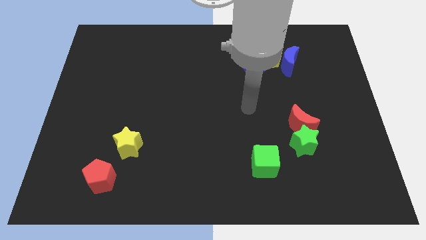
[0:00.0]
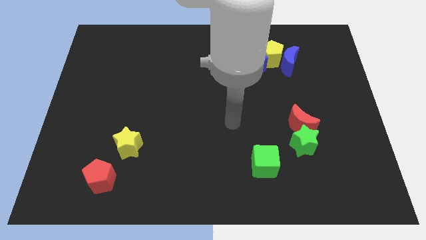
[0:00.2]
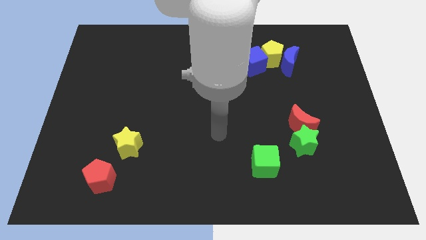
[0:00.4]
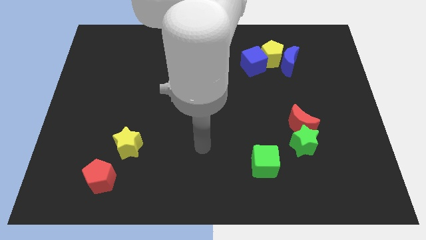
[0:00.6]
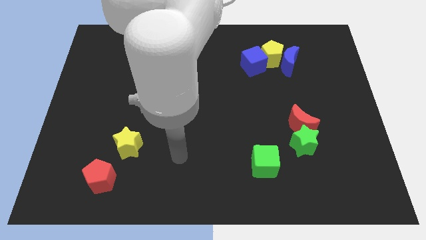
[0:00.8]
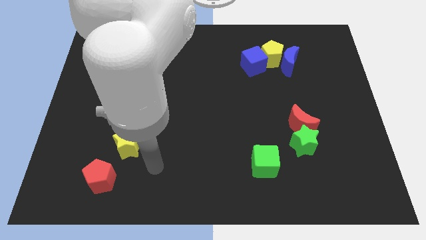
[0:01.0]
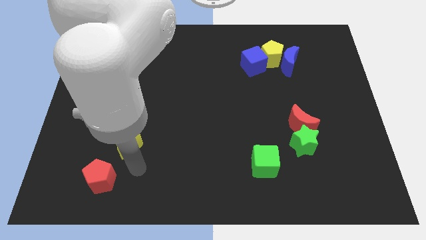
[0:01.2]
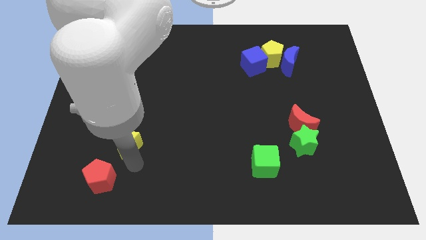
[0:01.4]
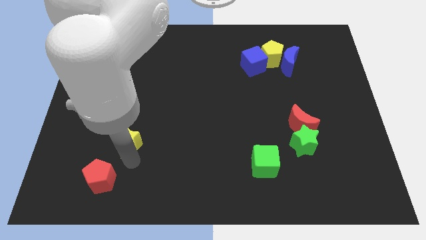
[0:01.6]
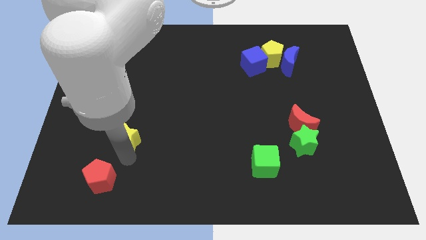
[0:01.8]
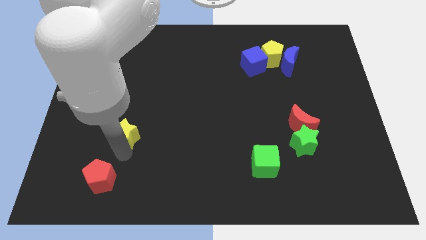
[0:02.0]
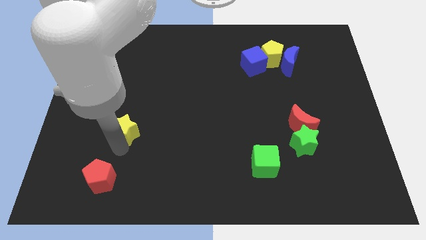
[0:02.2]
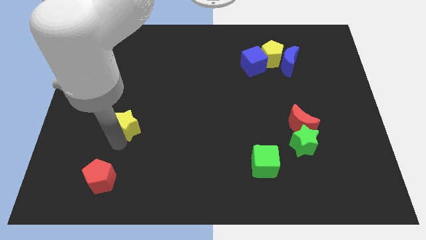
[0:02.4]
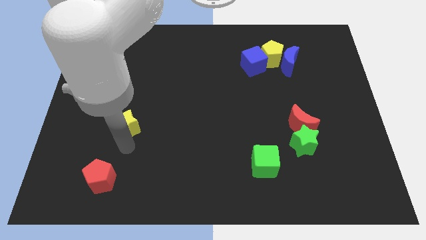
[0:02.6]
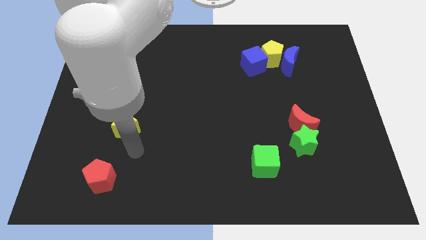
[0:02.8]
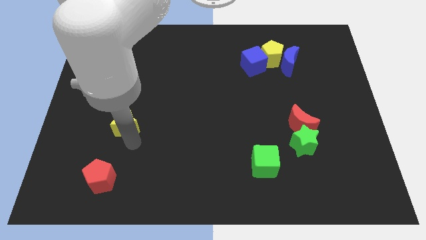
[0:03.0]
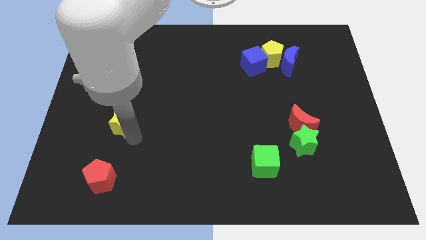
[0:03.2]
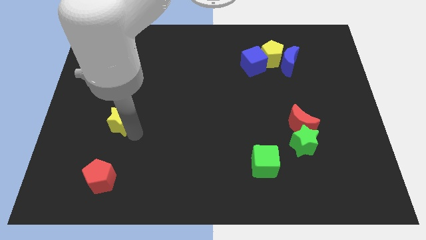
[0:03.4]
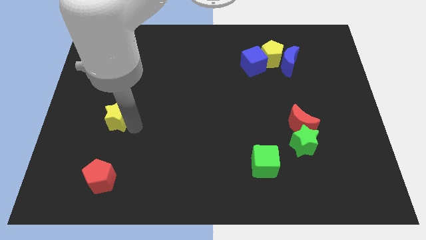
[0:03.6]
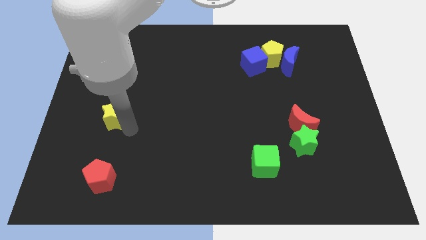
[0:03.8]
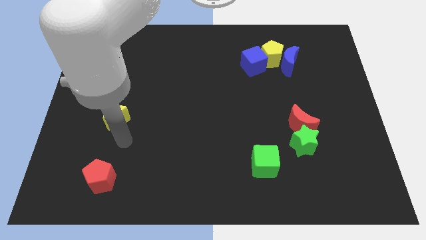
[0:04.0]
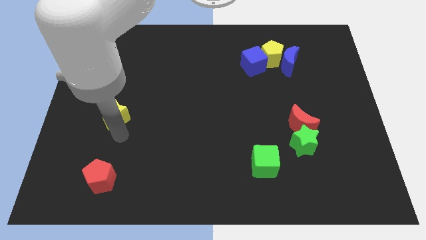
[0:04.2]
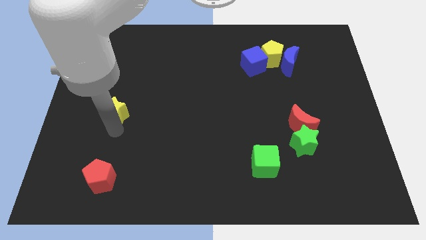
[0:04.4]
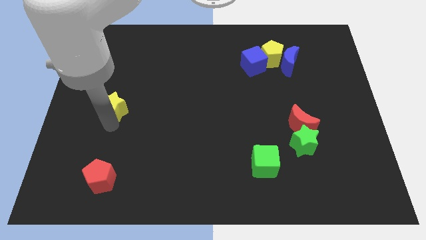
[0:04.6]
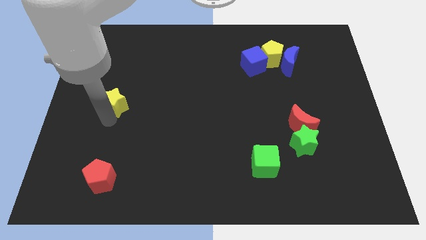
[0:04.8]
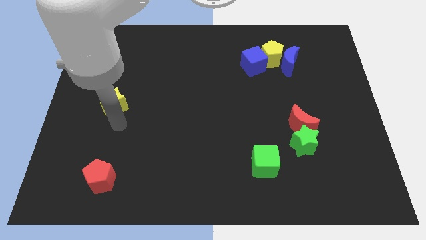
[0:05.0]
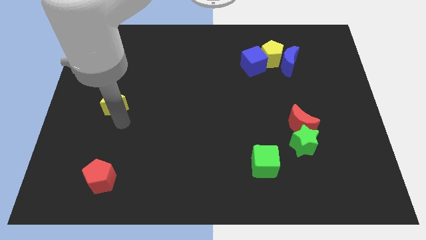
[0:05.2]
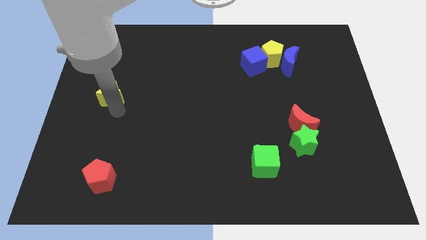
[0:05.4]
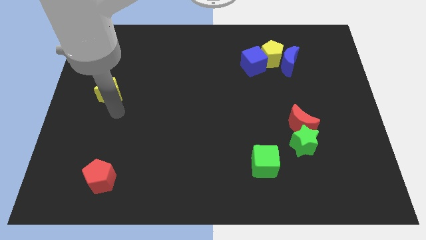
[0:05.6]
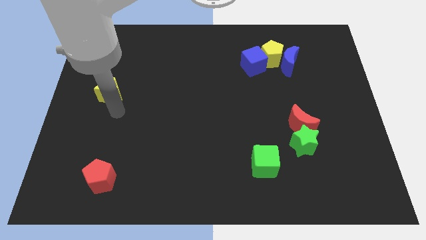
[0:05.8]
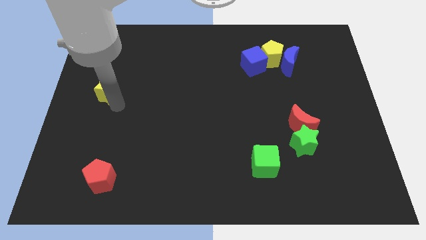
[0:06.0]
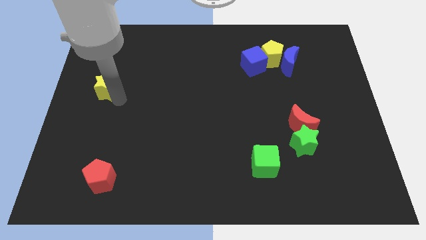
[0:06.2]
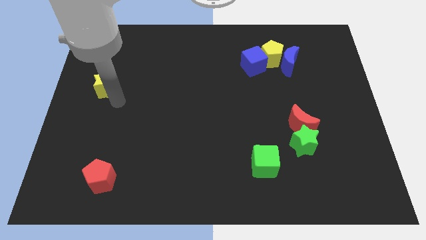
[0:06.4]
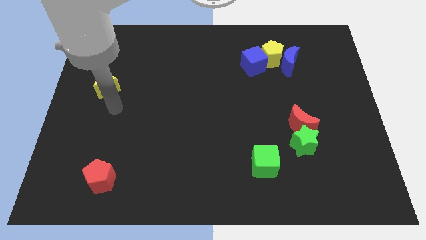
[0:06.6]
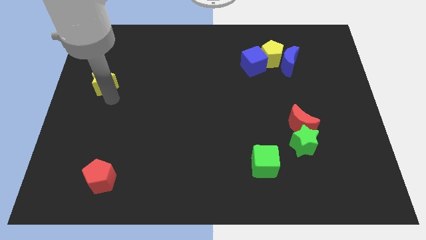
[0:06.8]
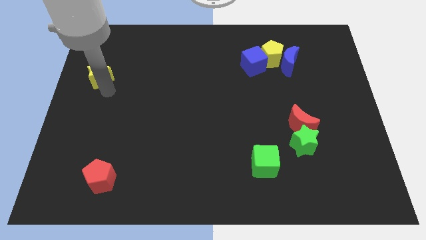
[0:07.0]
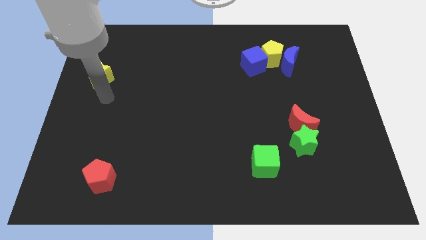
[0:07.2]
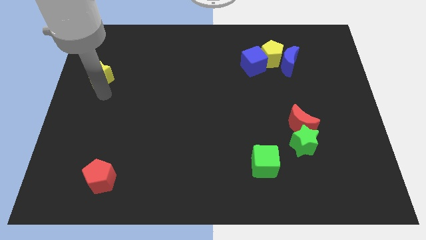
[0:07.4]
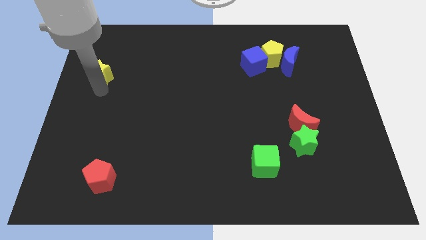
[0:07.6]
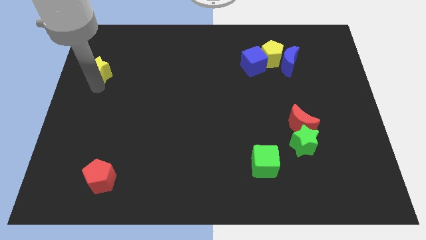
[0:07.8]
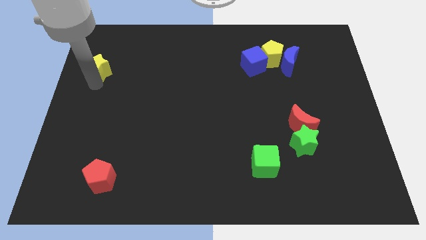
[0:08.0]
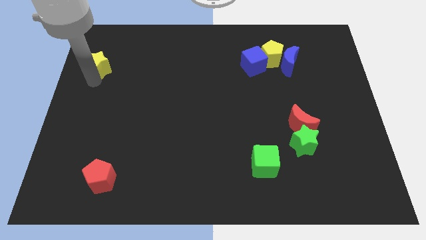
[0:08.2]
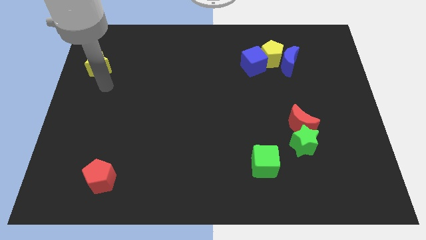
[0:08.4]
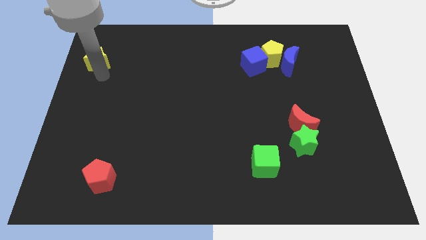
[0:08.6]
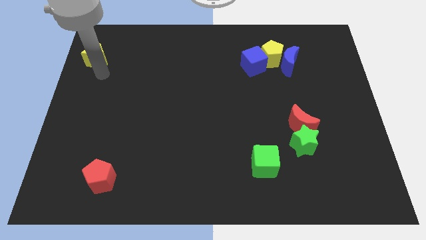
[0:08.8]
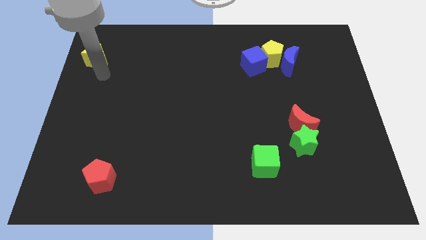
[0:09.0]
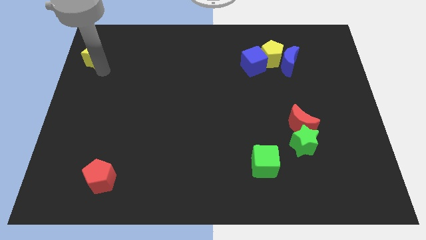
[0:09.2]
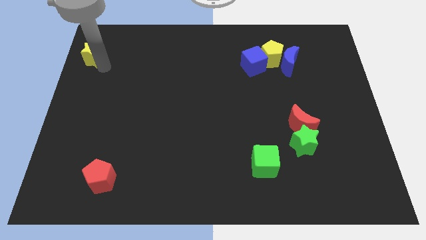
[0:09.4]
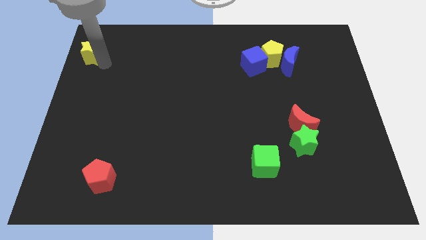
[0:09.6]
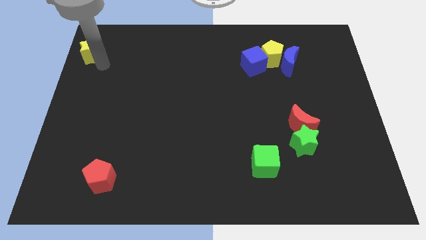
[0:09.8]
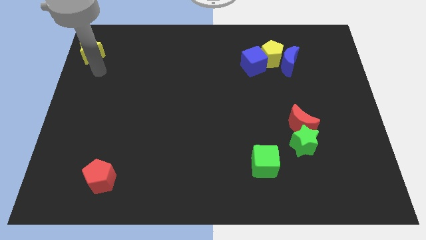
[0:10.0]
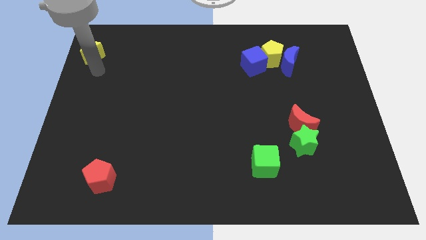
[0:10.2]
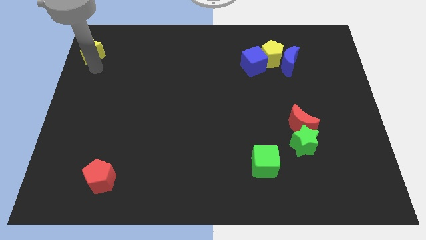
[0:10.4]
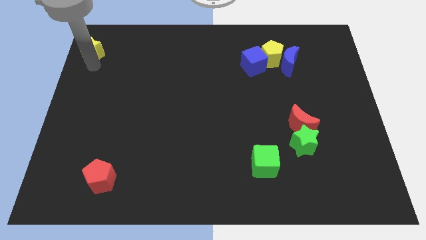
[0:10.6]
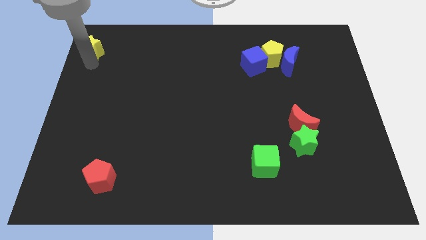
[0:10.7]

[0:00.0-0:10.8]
move the yellow star to the top left of the board

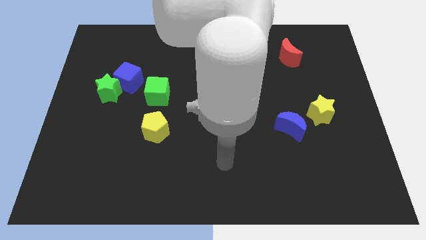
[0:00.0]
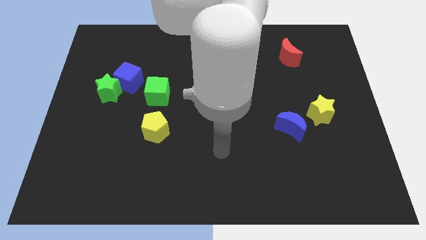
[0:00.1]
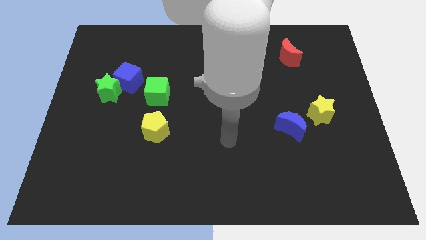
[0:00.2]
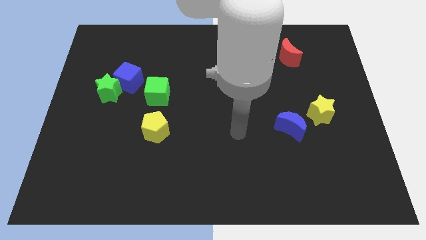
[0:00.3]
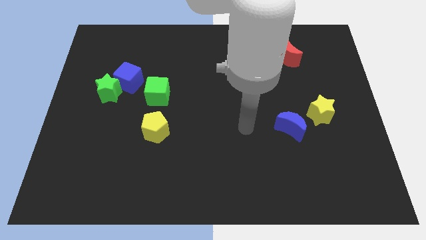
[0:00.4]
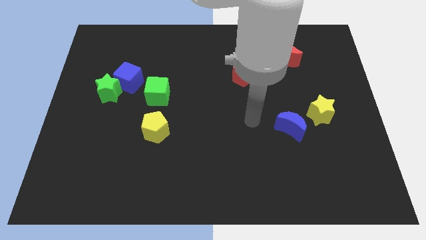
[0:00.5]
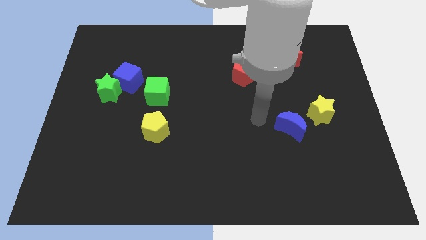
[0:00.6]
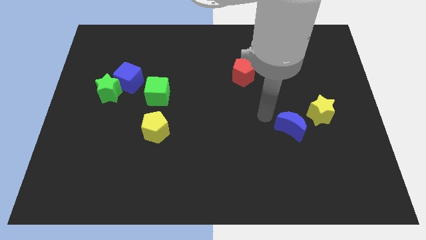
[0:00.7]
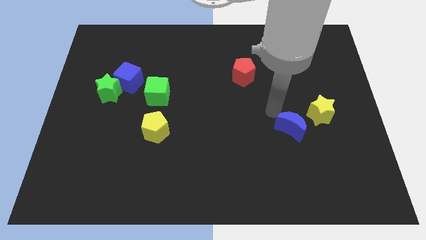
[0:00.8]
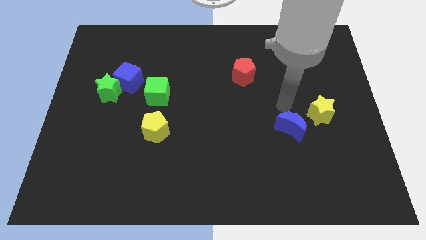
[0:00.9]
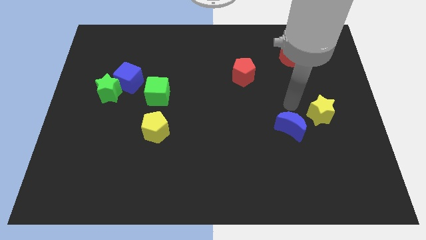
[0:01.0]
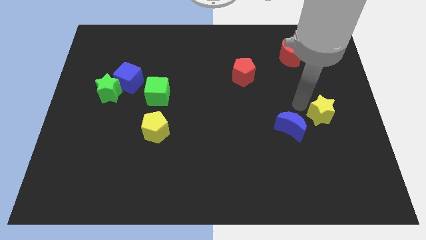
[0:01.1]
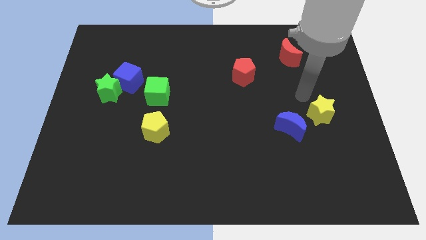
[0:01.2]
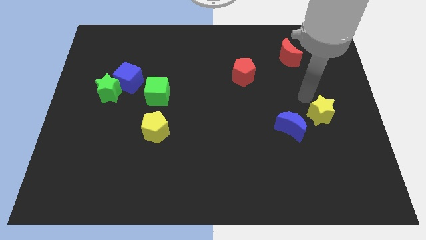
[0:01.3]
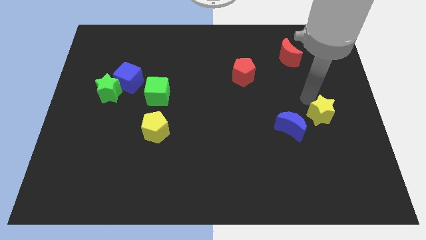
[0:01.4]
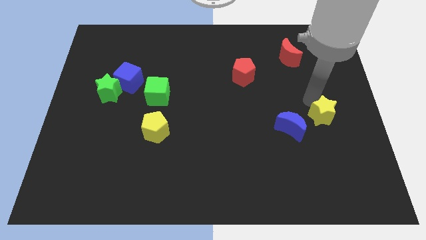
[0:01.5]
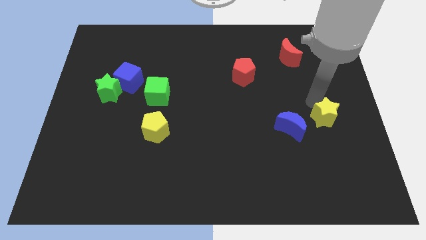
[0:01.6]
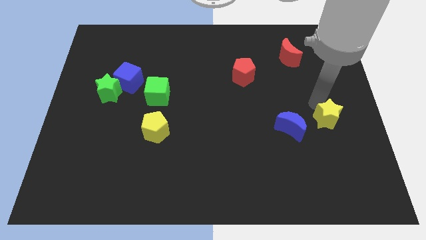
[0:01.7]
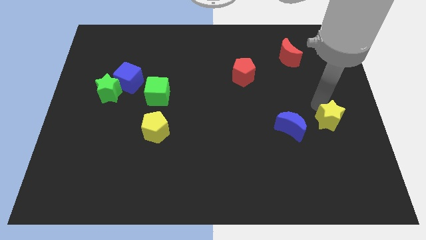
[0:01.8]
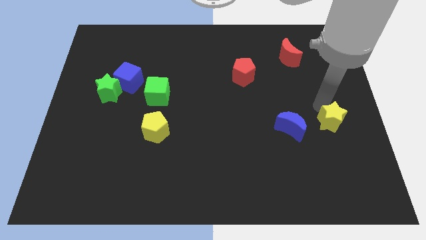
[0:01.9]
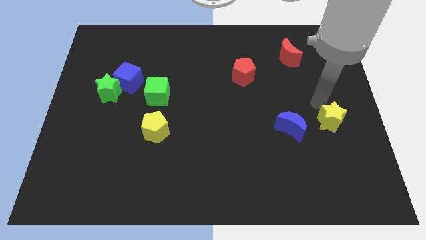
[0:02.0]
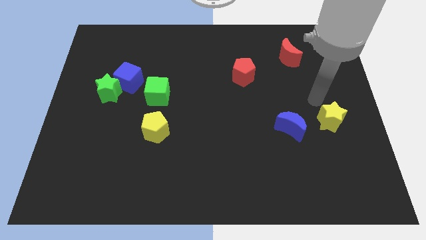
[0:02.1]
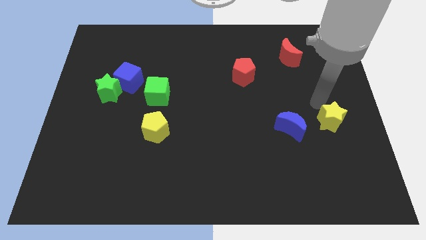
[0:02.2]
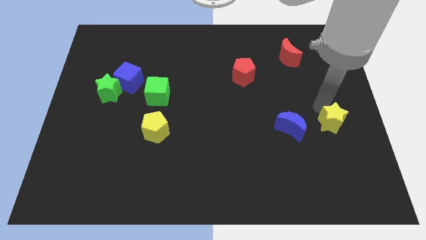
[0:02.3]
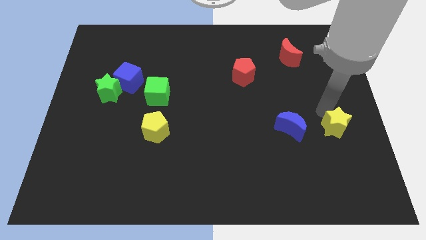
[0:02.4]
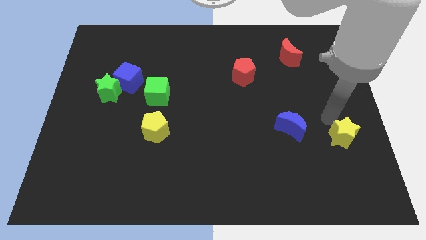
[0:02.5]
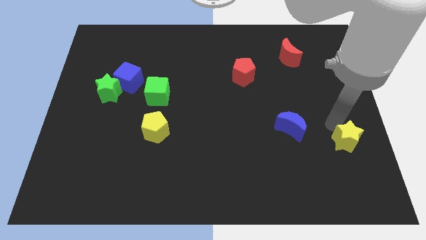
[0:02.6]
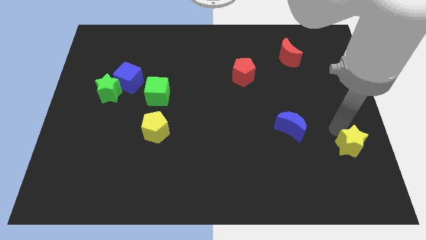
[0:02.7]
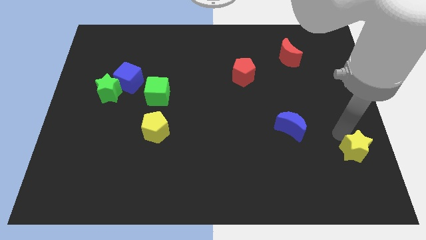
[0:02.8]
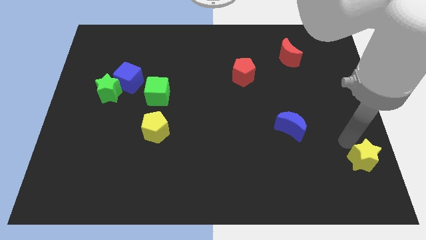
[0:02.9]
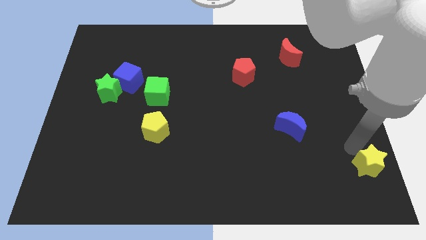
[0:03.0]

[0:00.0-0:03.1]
move the yellow star to the bottom right
